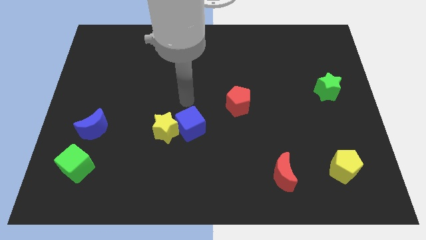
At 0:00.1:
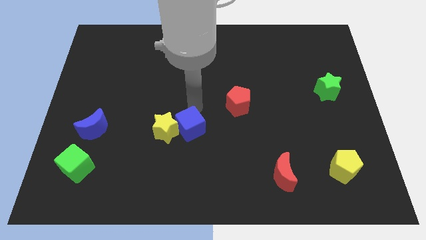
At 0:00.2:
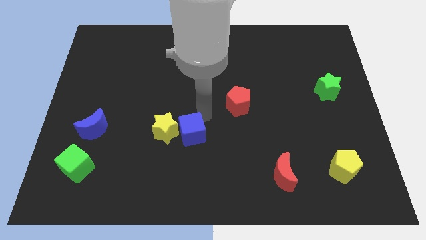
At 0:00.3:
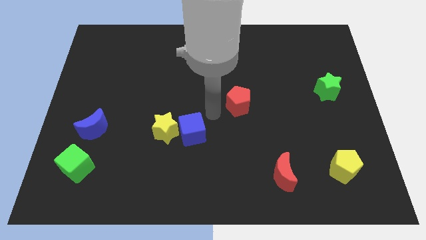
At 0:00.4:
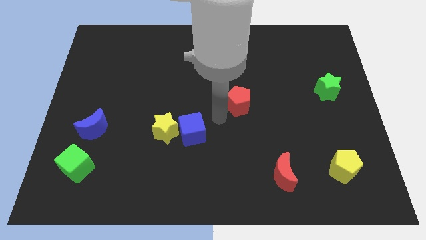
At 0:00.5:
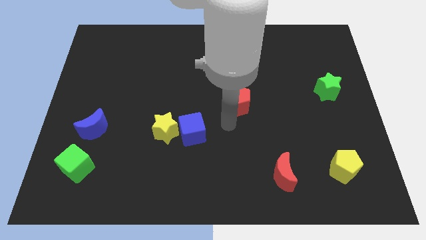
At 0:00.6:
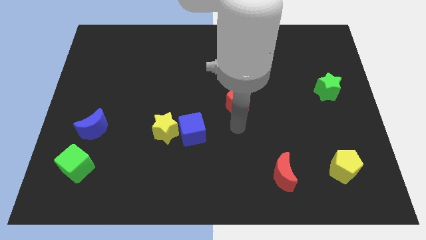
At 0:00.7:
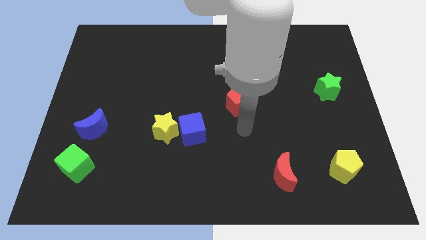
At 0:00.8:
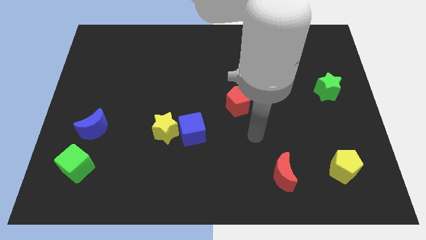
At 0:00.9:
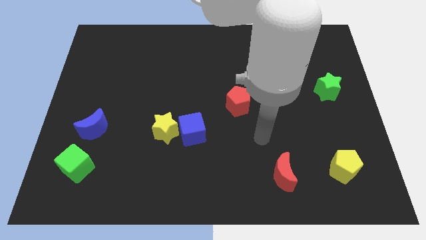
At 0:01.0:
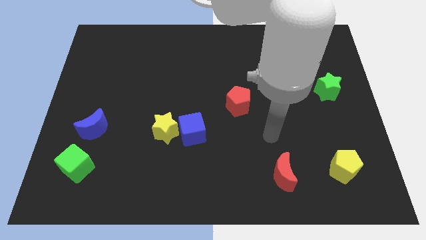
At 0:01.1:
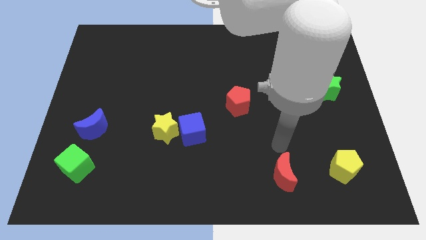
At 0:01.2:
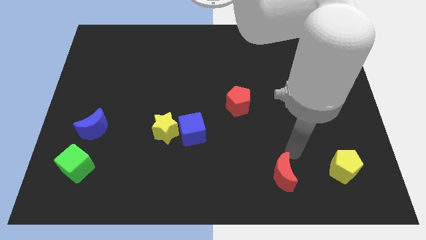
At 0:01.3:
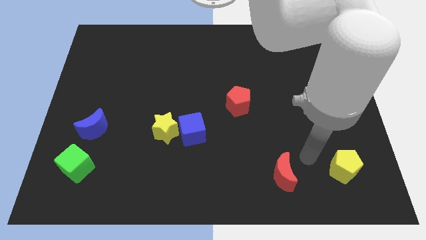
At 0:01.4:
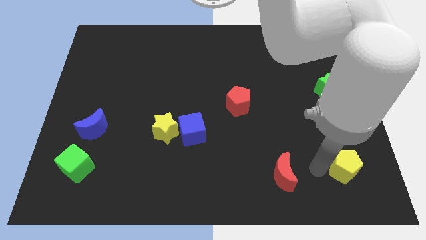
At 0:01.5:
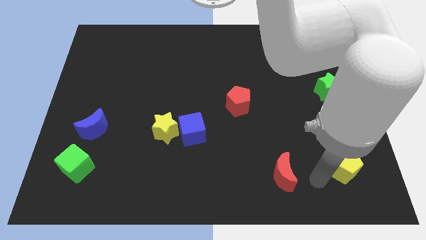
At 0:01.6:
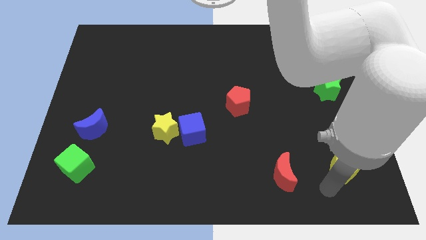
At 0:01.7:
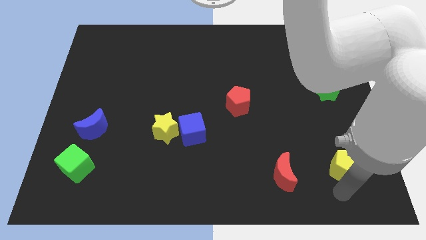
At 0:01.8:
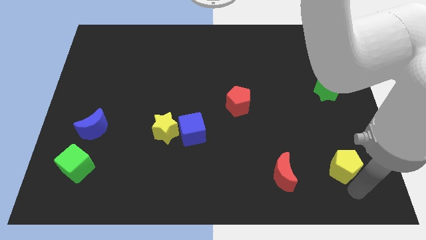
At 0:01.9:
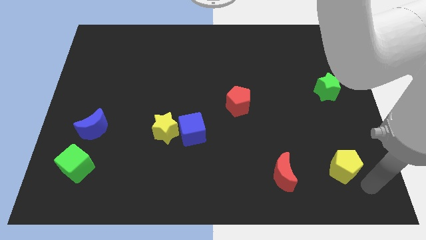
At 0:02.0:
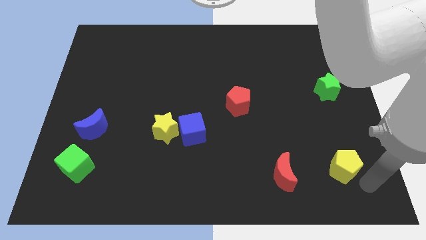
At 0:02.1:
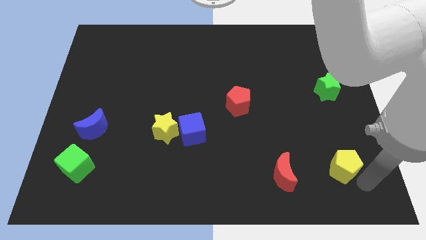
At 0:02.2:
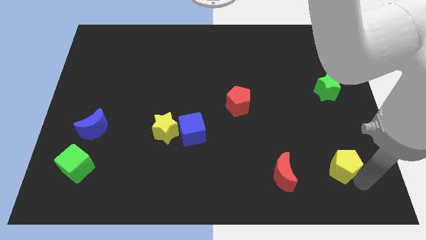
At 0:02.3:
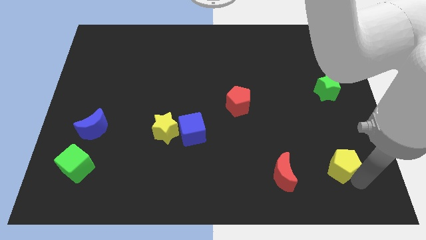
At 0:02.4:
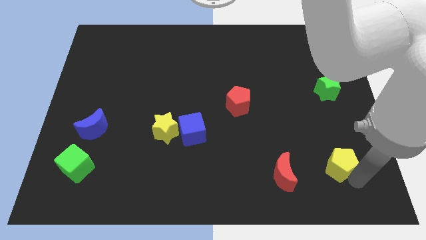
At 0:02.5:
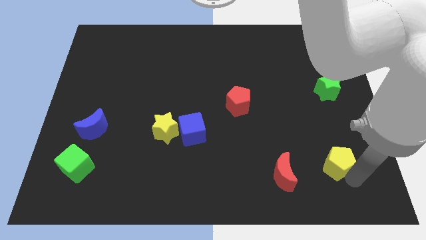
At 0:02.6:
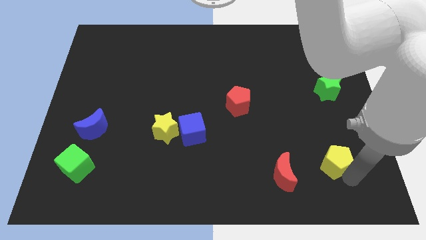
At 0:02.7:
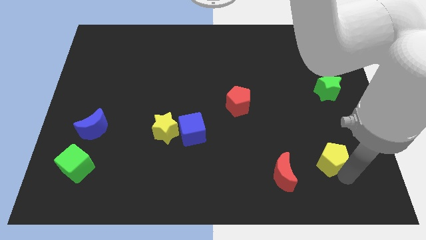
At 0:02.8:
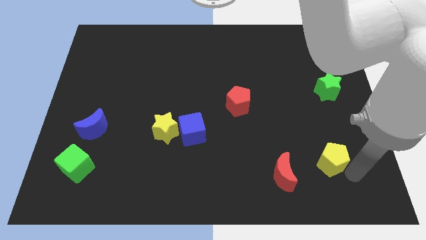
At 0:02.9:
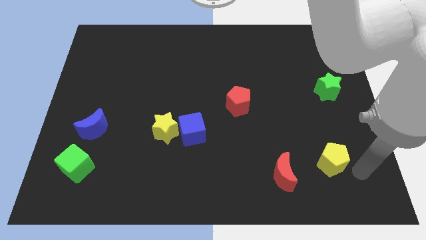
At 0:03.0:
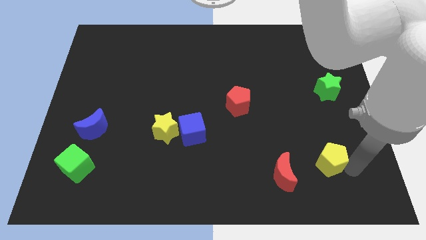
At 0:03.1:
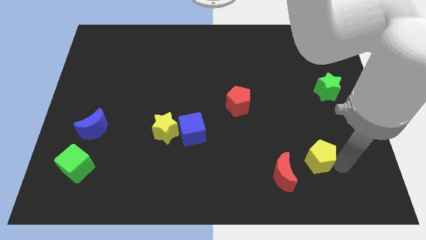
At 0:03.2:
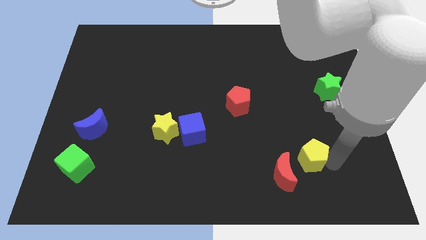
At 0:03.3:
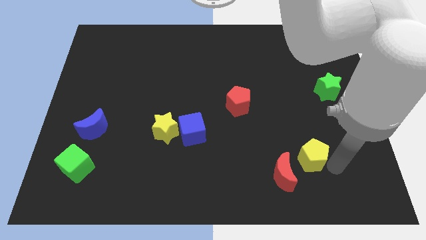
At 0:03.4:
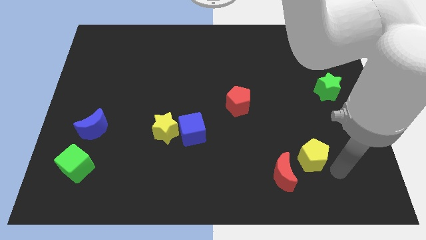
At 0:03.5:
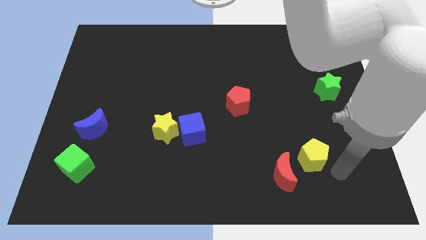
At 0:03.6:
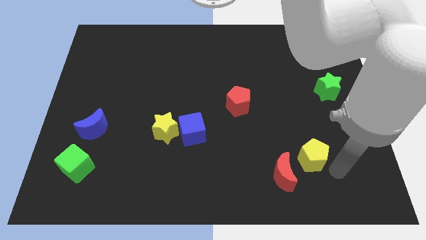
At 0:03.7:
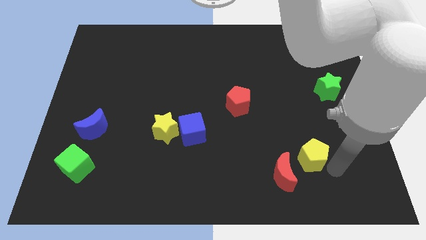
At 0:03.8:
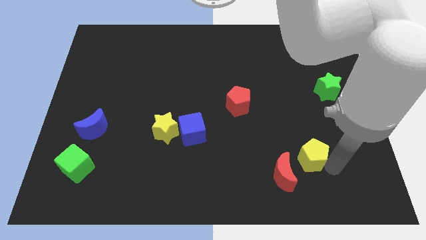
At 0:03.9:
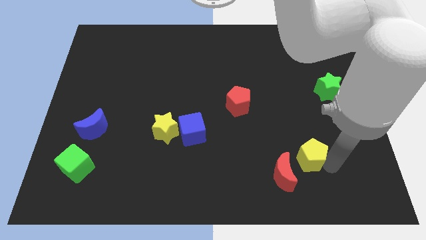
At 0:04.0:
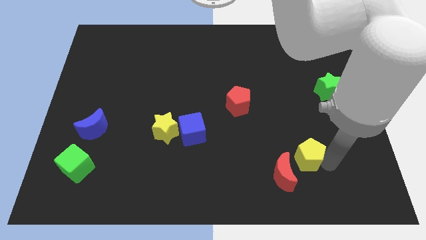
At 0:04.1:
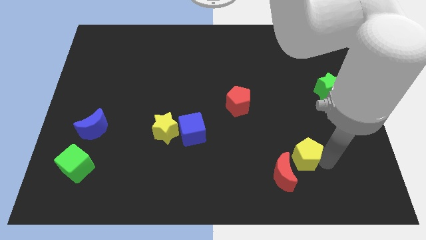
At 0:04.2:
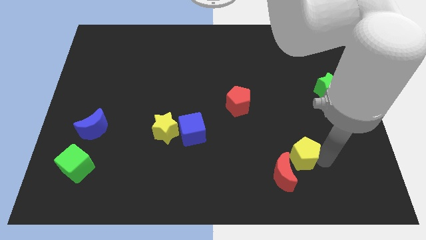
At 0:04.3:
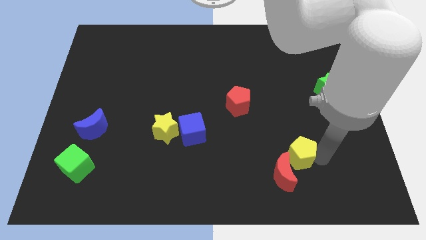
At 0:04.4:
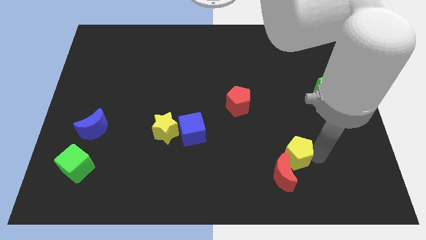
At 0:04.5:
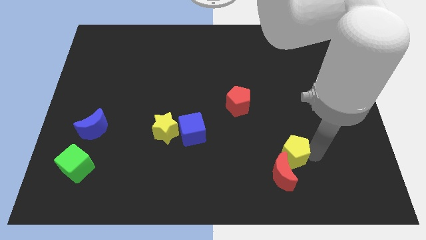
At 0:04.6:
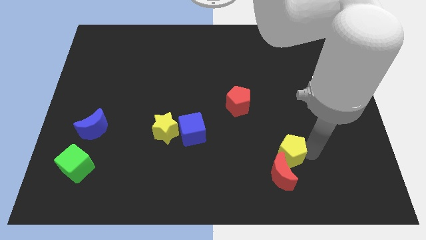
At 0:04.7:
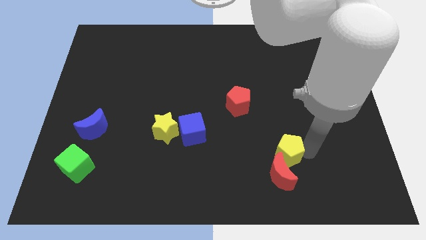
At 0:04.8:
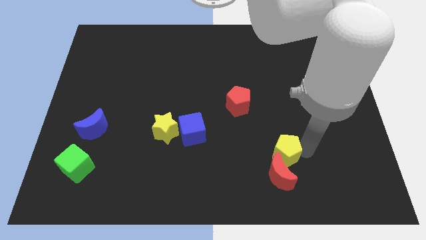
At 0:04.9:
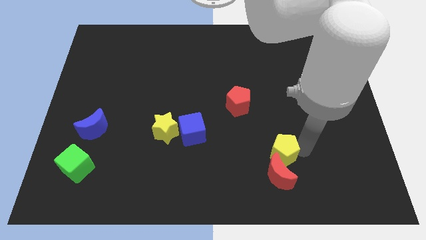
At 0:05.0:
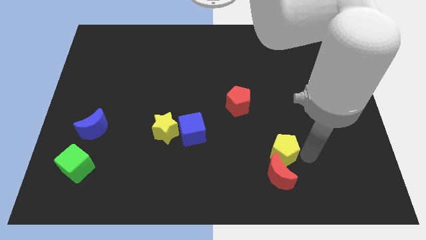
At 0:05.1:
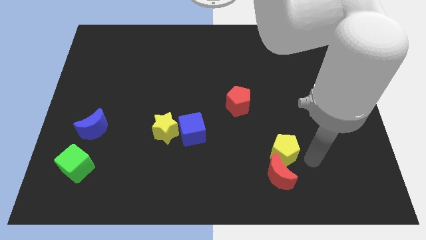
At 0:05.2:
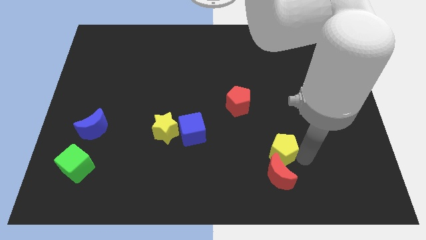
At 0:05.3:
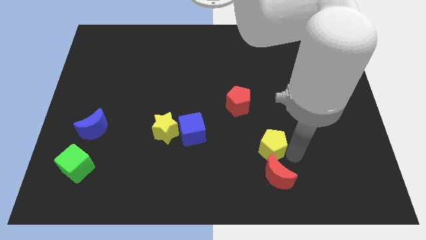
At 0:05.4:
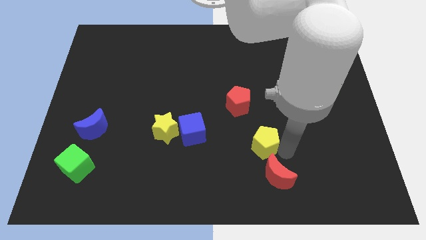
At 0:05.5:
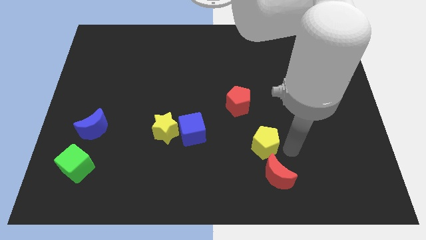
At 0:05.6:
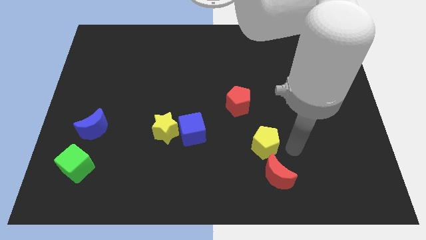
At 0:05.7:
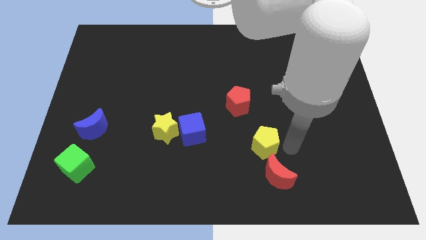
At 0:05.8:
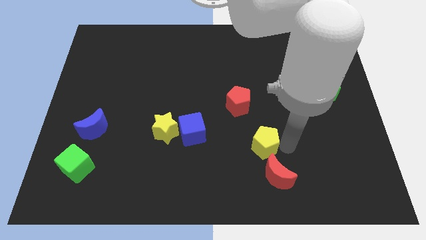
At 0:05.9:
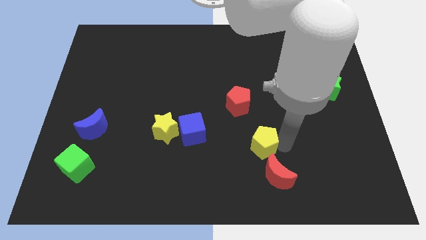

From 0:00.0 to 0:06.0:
slide the yellow pentagon to the bottom of the red pentagon

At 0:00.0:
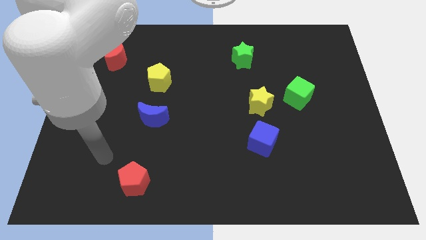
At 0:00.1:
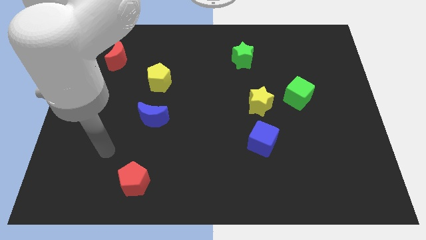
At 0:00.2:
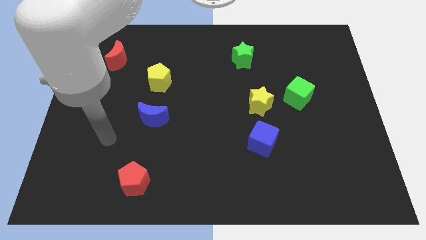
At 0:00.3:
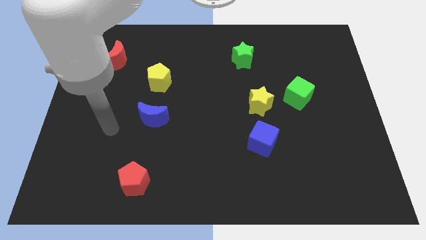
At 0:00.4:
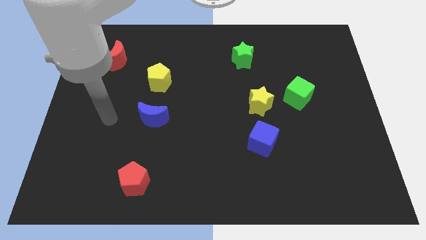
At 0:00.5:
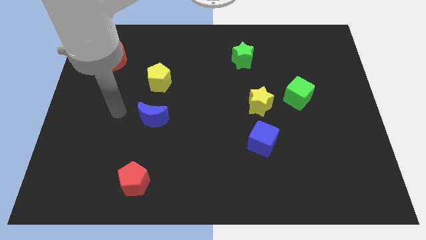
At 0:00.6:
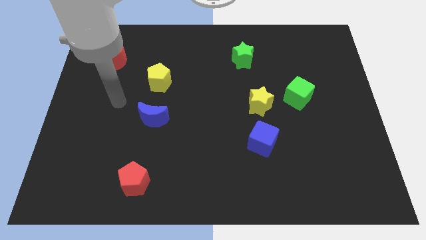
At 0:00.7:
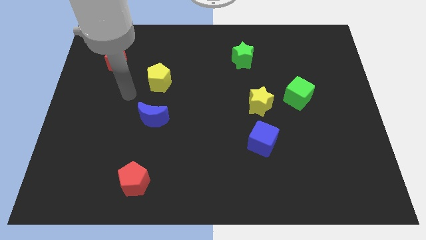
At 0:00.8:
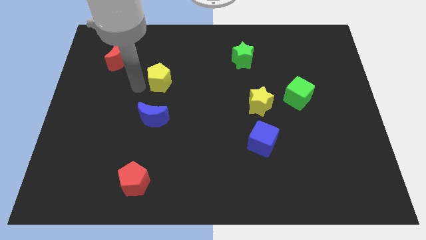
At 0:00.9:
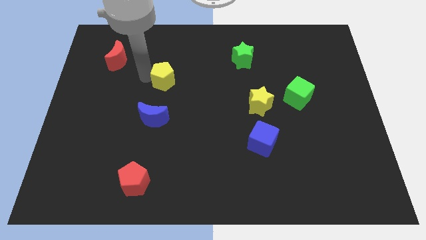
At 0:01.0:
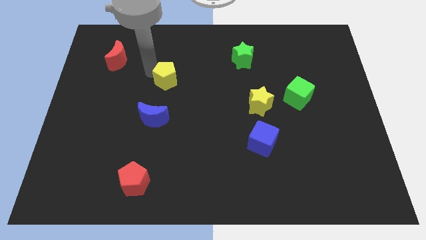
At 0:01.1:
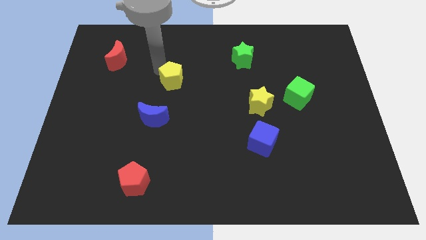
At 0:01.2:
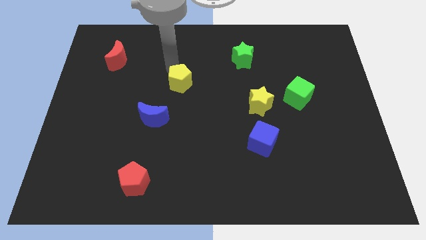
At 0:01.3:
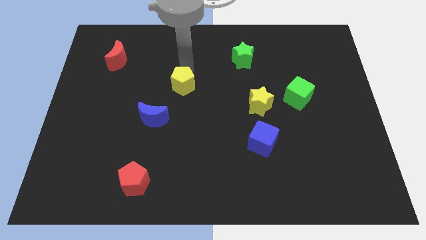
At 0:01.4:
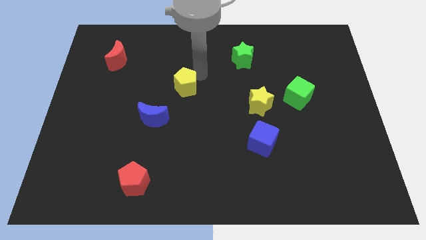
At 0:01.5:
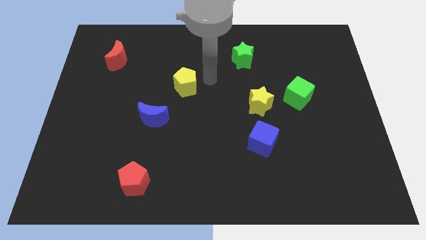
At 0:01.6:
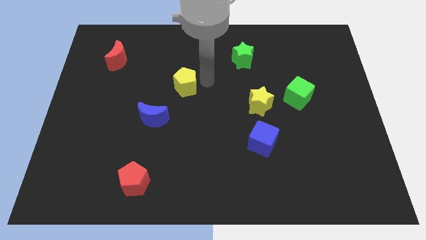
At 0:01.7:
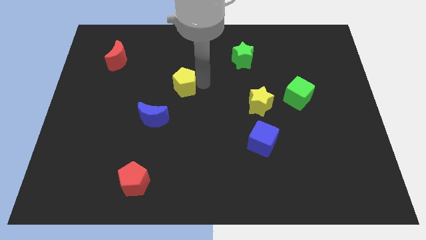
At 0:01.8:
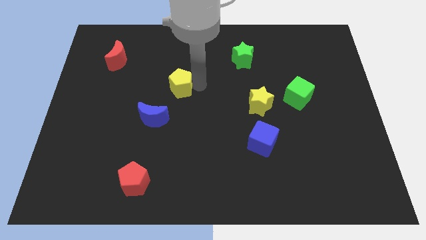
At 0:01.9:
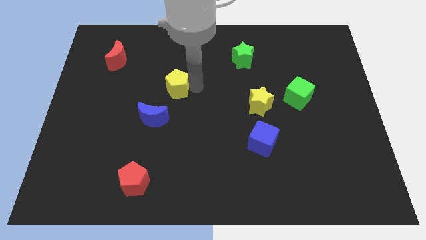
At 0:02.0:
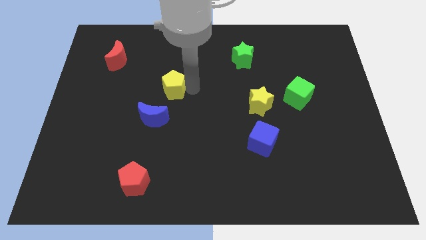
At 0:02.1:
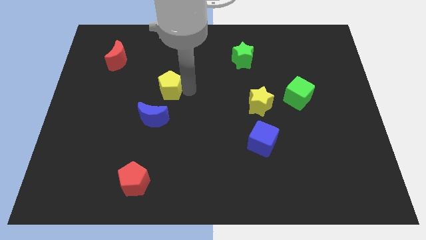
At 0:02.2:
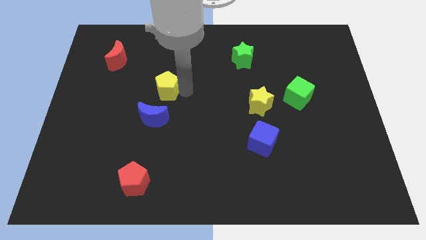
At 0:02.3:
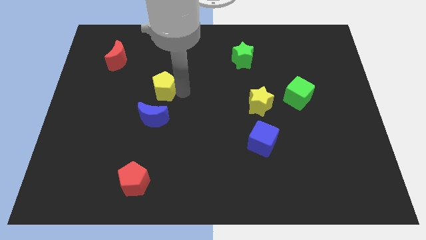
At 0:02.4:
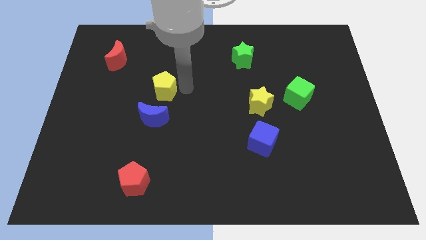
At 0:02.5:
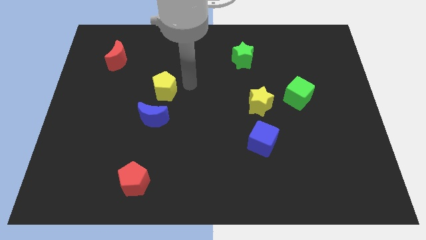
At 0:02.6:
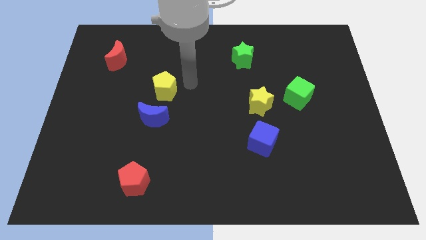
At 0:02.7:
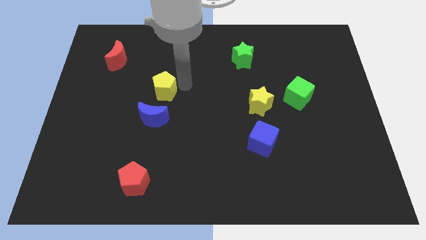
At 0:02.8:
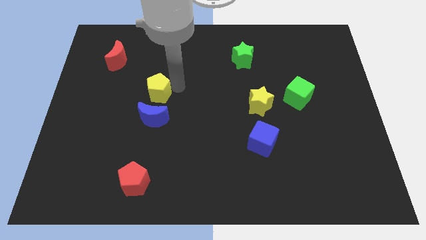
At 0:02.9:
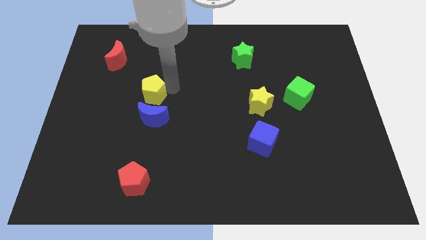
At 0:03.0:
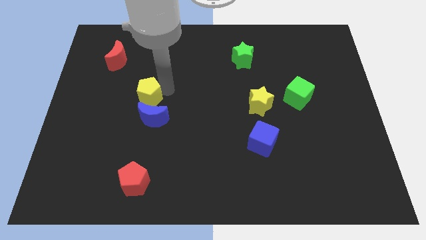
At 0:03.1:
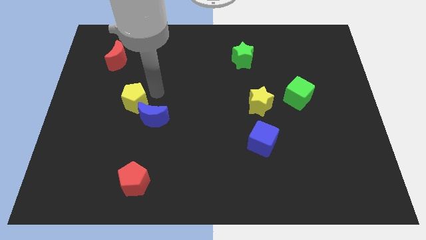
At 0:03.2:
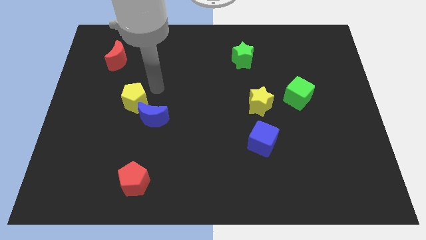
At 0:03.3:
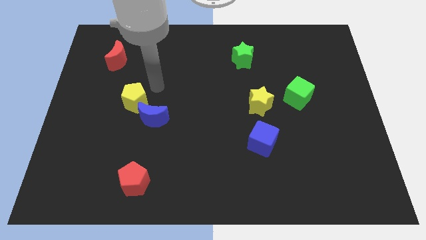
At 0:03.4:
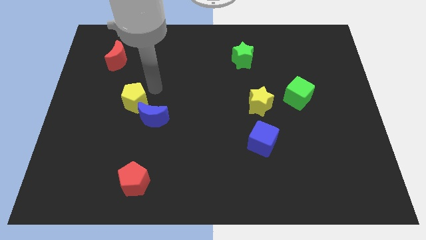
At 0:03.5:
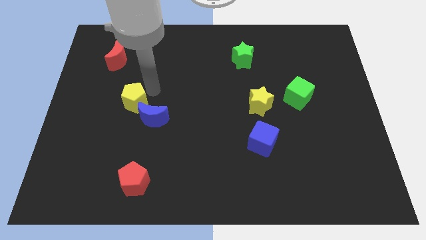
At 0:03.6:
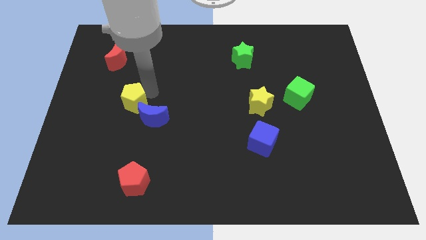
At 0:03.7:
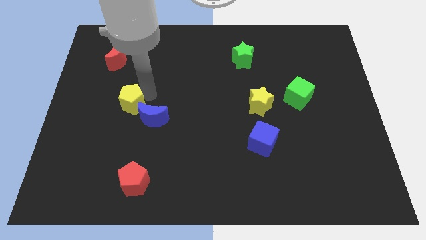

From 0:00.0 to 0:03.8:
push the yellow pentagon to the left of the blue moon
